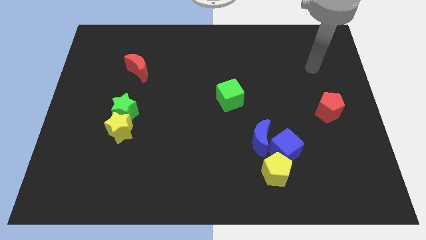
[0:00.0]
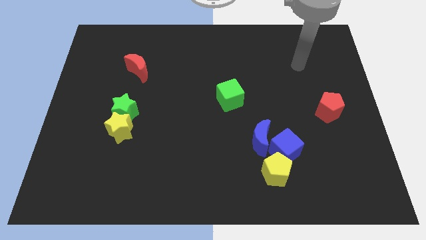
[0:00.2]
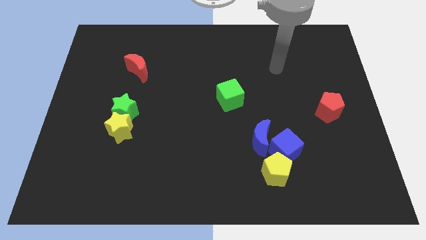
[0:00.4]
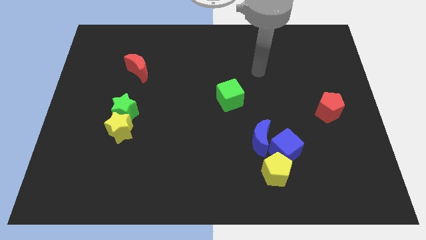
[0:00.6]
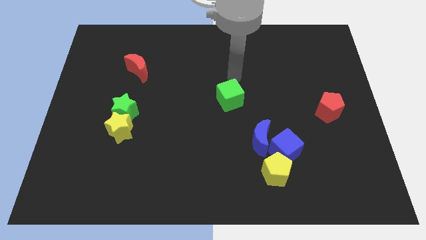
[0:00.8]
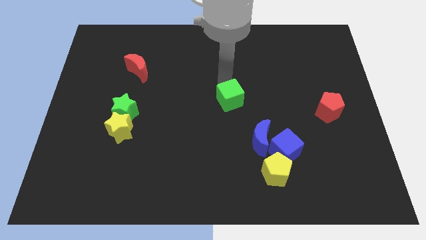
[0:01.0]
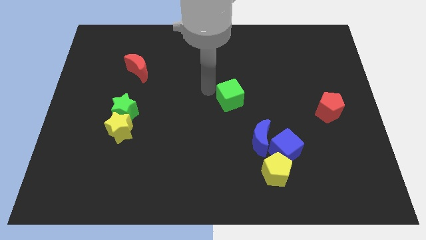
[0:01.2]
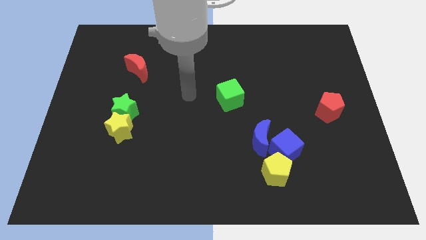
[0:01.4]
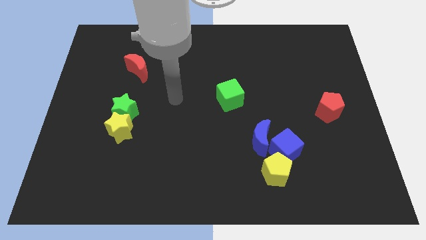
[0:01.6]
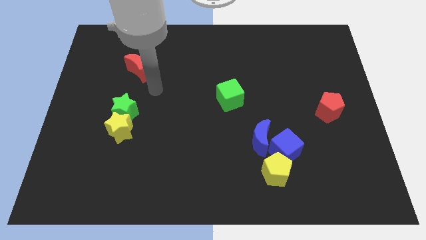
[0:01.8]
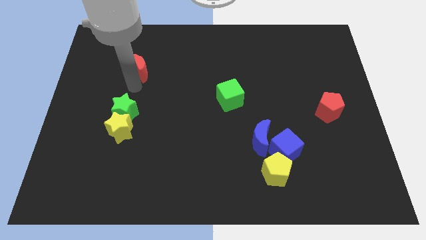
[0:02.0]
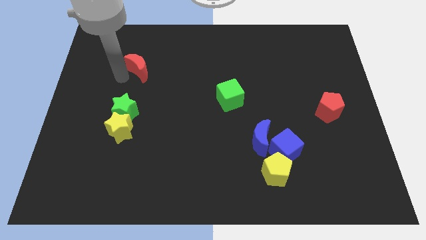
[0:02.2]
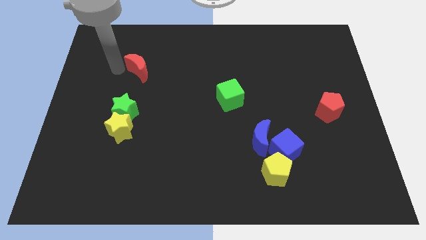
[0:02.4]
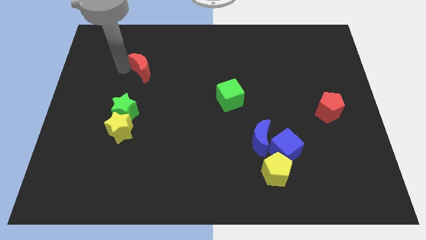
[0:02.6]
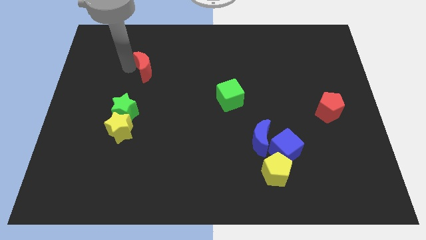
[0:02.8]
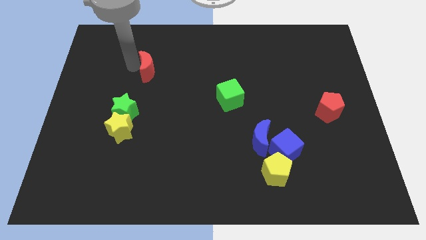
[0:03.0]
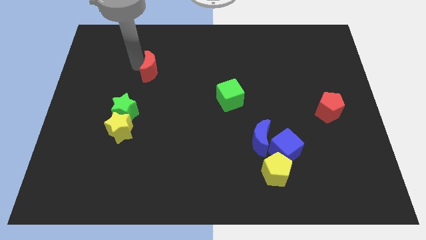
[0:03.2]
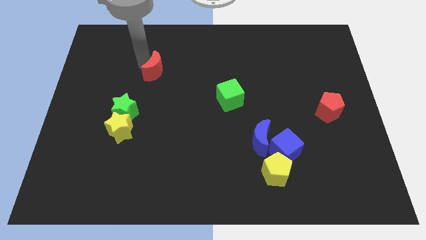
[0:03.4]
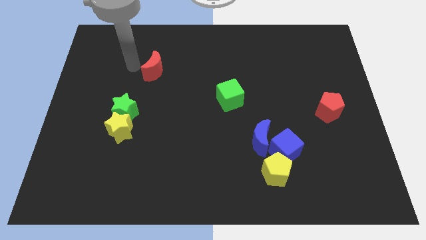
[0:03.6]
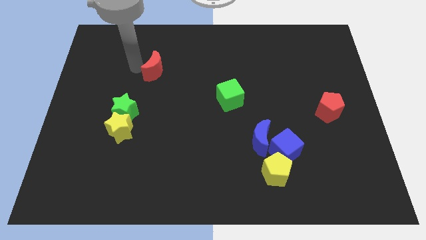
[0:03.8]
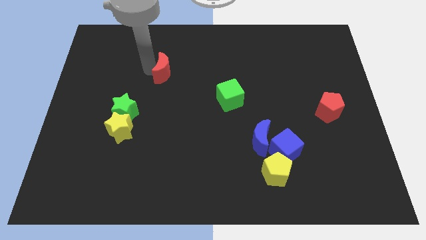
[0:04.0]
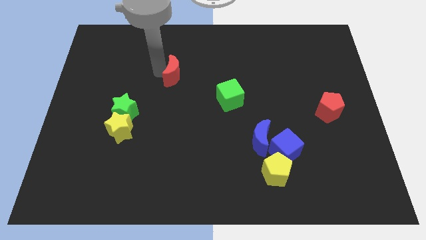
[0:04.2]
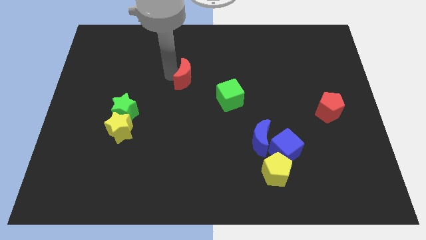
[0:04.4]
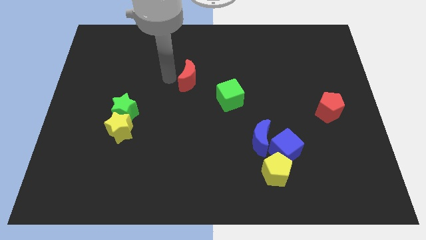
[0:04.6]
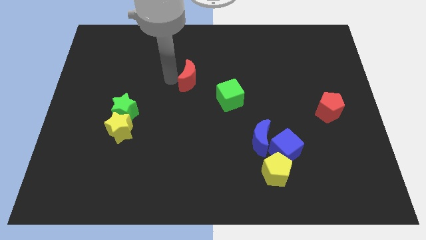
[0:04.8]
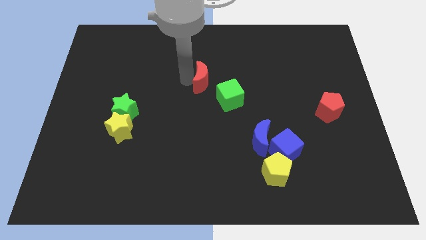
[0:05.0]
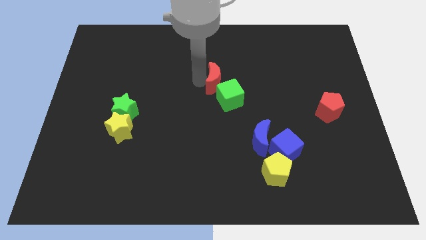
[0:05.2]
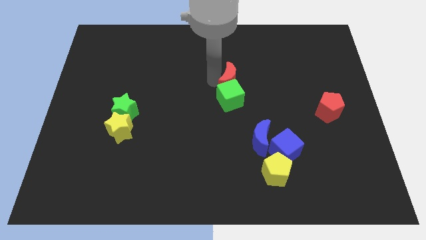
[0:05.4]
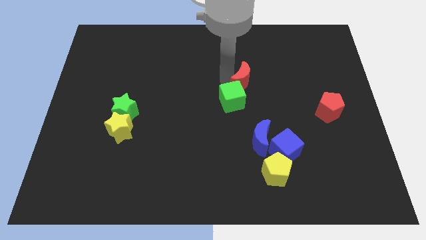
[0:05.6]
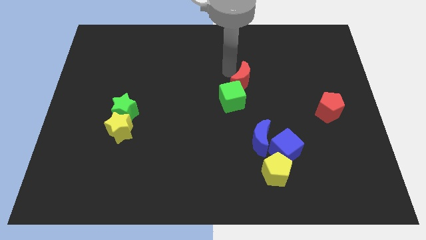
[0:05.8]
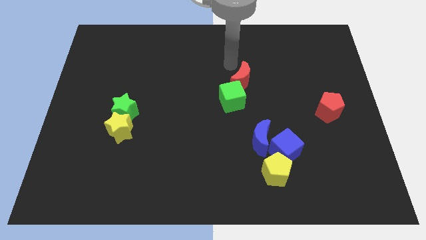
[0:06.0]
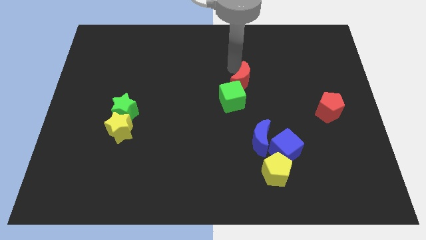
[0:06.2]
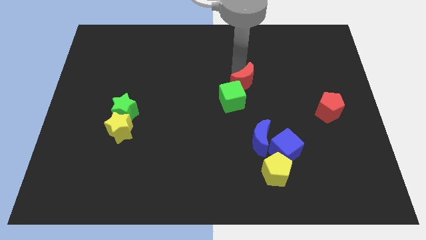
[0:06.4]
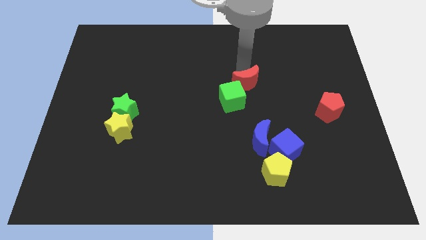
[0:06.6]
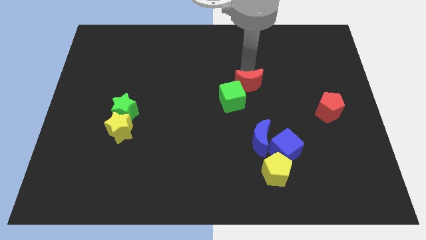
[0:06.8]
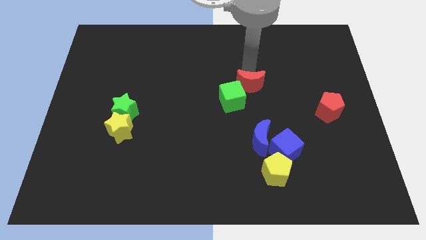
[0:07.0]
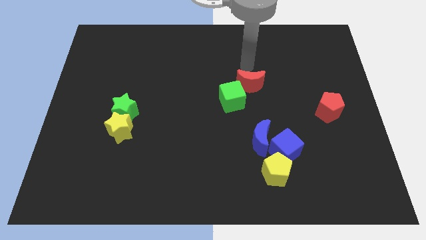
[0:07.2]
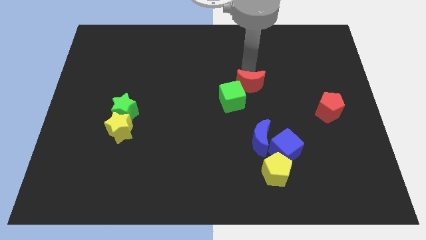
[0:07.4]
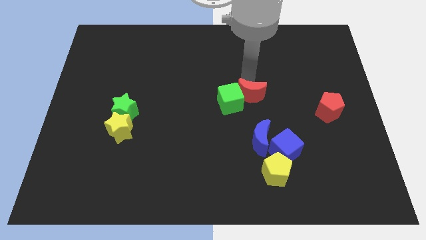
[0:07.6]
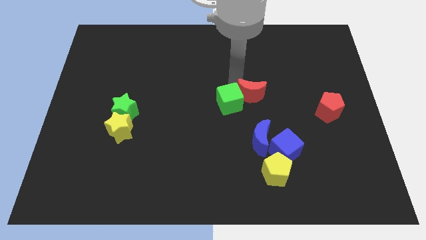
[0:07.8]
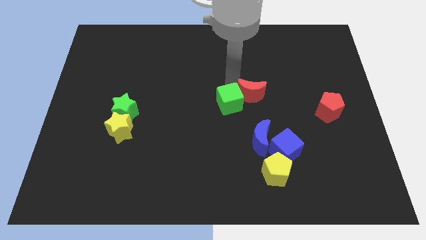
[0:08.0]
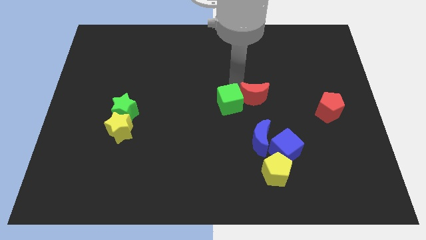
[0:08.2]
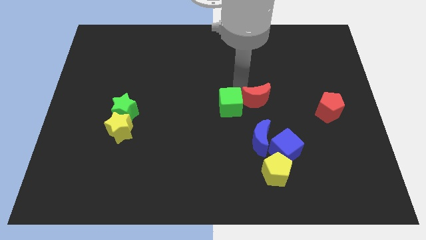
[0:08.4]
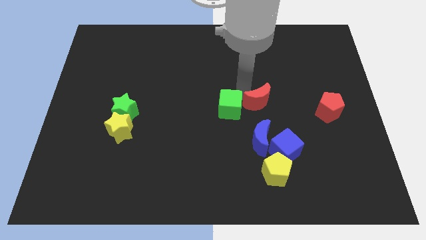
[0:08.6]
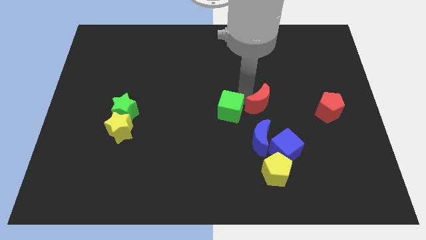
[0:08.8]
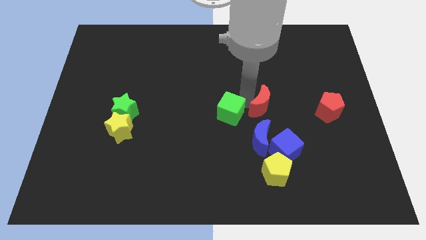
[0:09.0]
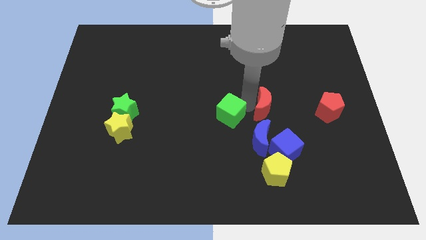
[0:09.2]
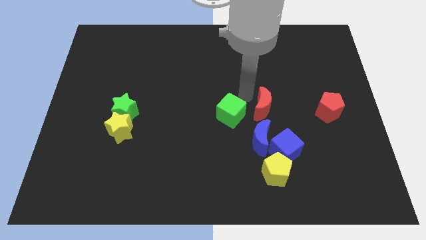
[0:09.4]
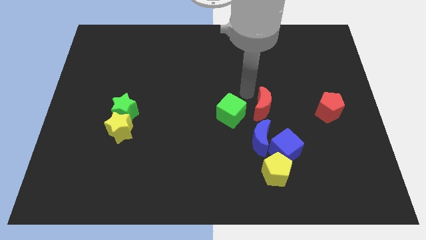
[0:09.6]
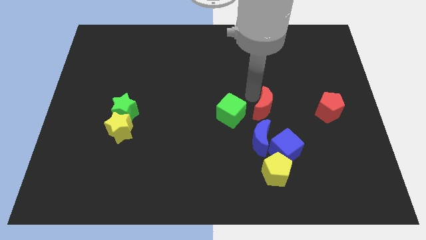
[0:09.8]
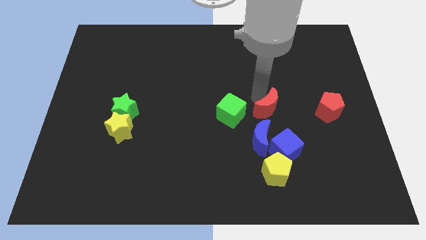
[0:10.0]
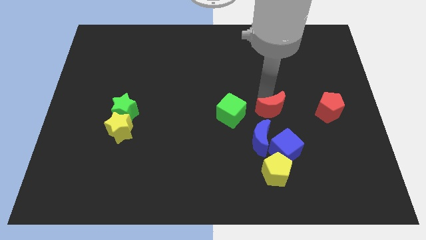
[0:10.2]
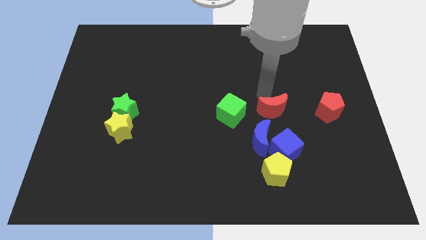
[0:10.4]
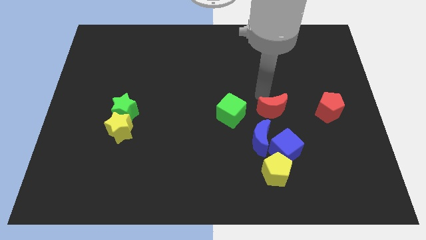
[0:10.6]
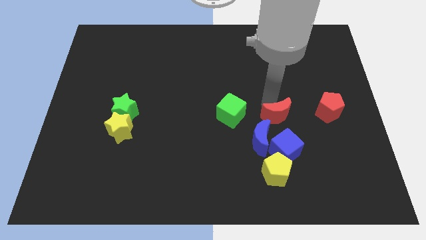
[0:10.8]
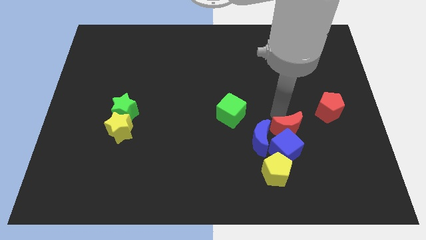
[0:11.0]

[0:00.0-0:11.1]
move the red moon towards the blue cube

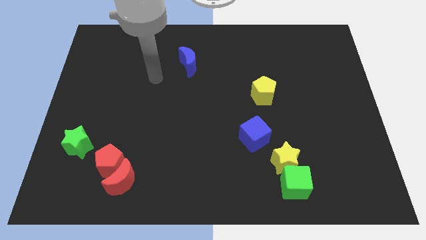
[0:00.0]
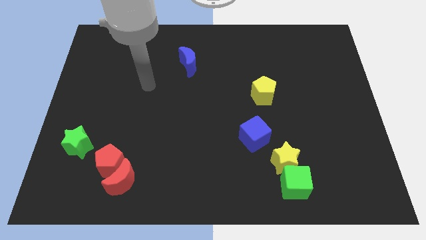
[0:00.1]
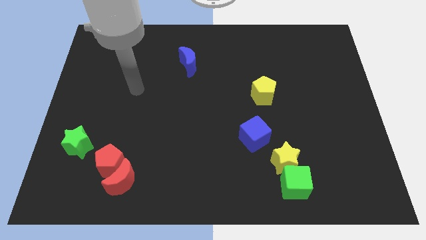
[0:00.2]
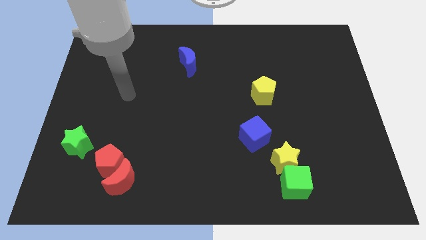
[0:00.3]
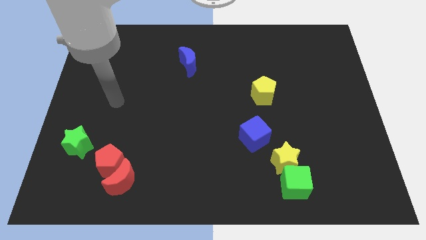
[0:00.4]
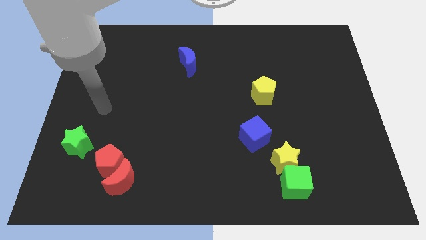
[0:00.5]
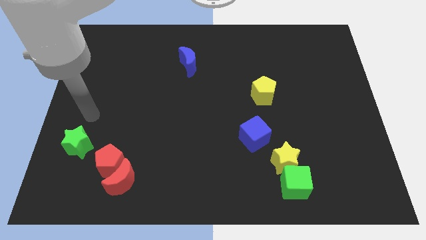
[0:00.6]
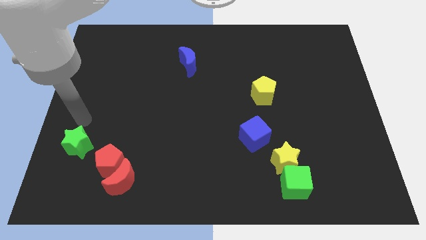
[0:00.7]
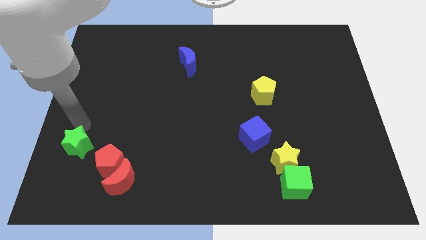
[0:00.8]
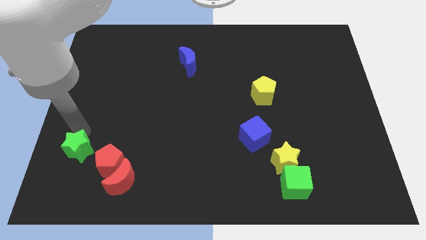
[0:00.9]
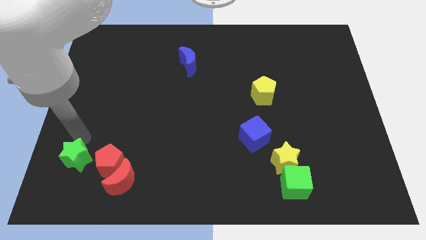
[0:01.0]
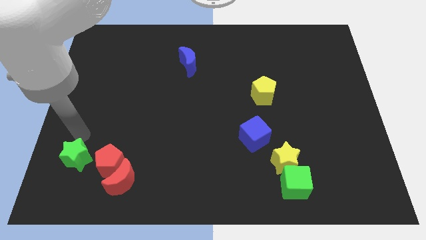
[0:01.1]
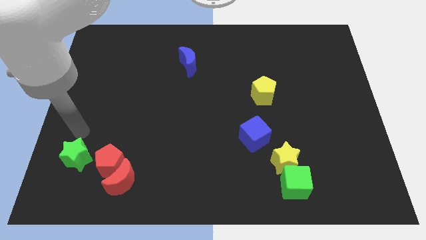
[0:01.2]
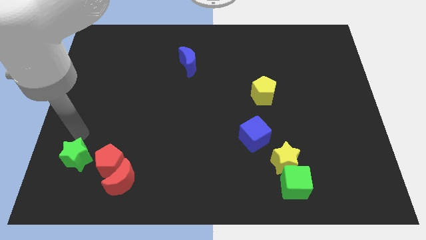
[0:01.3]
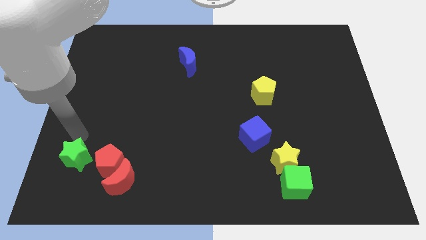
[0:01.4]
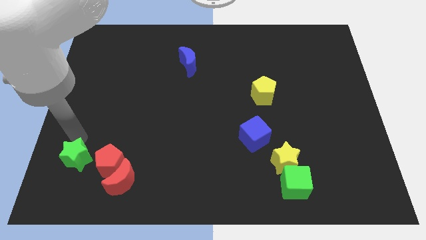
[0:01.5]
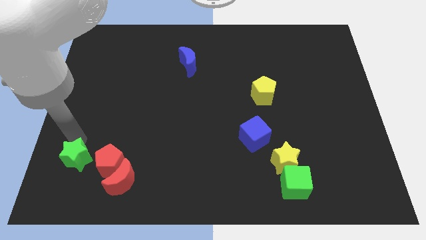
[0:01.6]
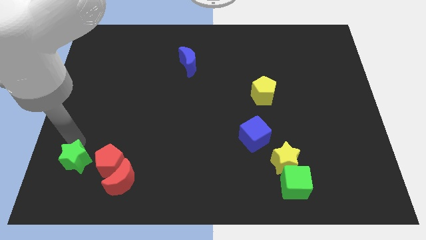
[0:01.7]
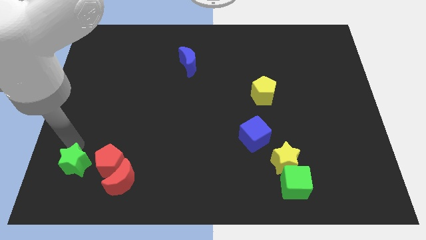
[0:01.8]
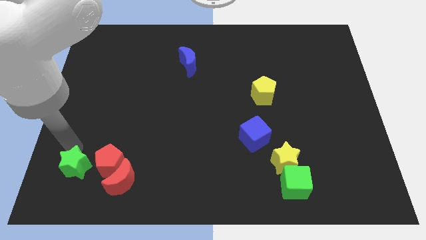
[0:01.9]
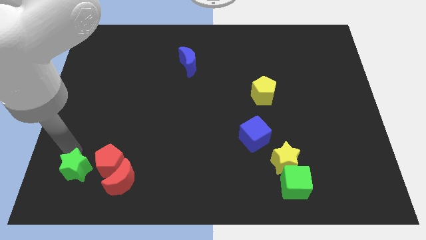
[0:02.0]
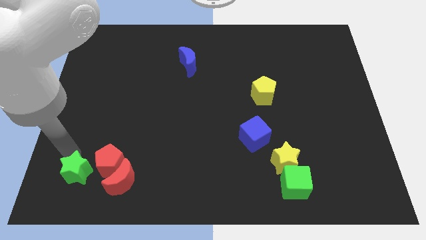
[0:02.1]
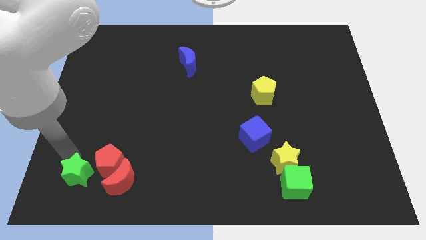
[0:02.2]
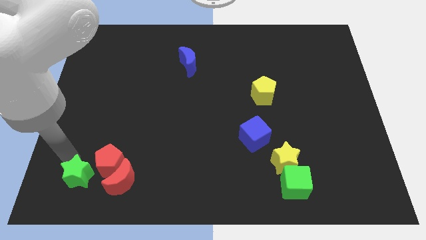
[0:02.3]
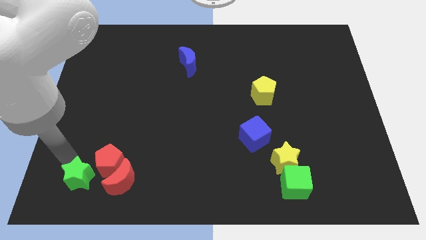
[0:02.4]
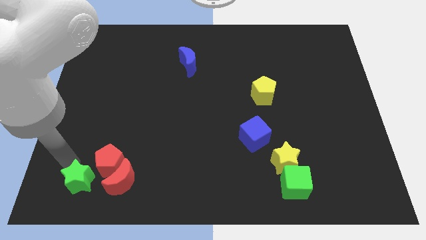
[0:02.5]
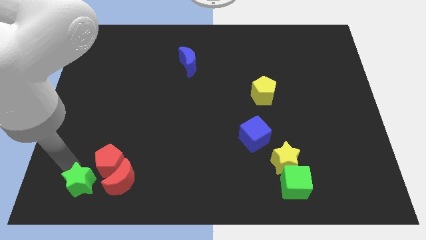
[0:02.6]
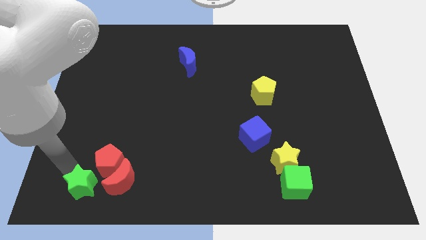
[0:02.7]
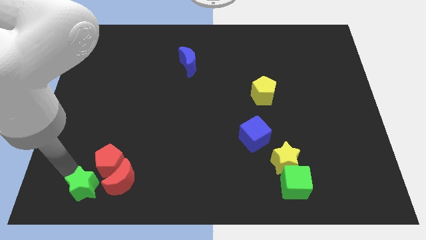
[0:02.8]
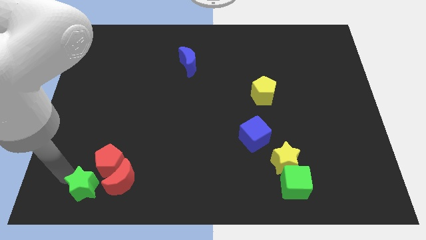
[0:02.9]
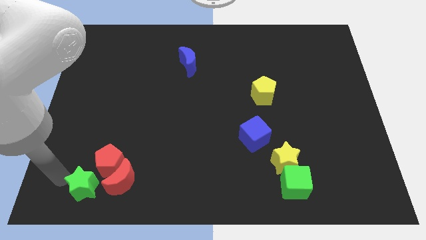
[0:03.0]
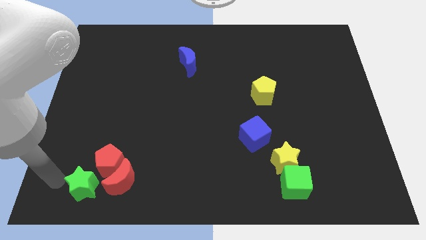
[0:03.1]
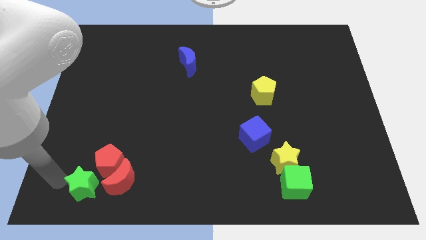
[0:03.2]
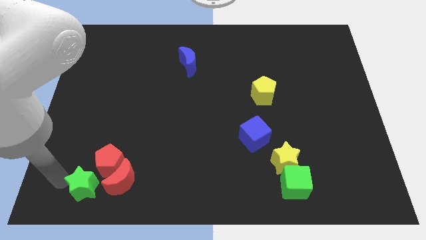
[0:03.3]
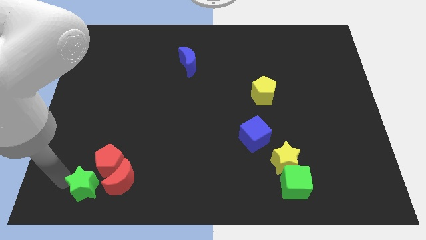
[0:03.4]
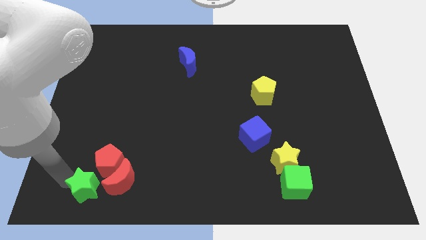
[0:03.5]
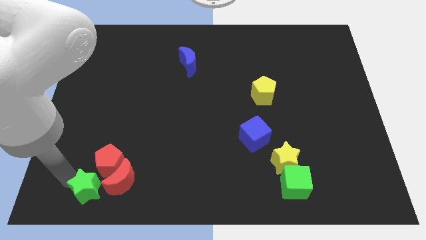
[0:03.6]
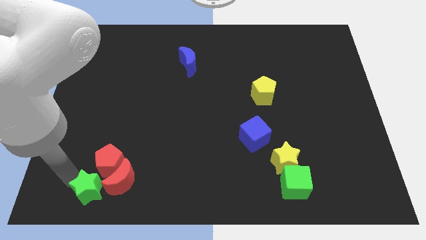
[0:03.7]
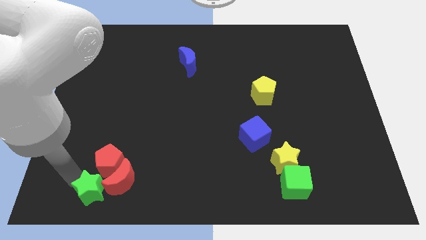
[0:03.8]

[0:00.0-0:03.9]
move the green star to the red moon
